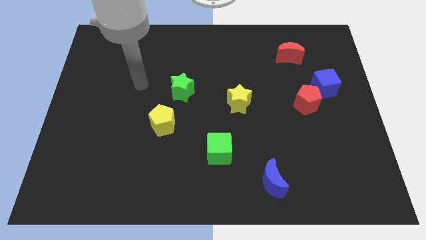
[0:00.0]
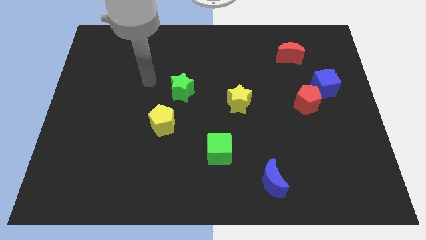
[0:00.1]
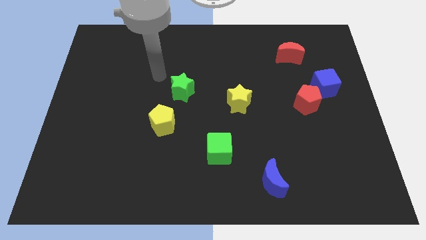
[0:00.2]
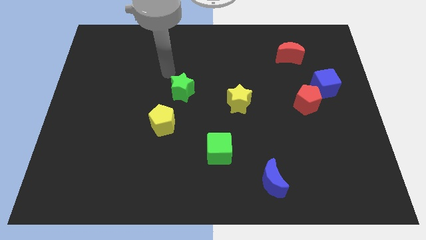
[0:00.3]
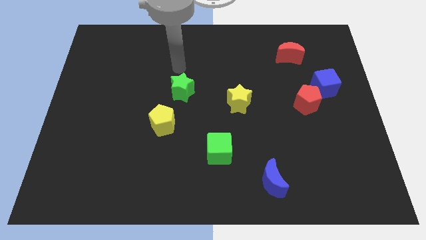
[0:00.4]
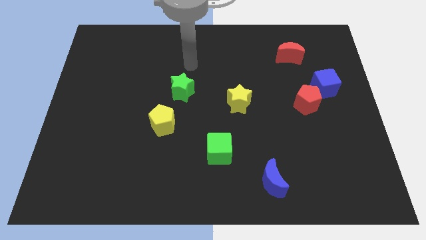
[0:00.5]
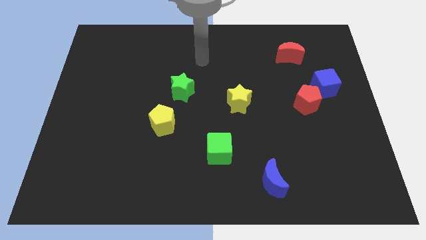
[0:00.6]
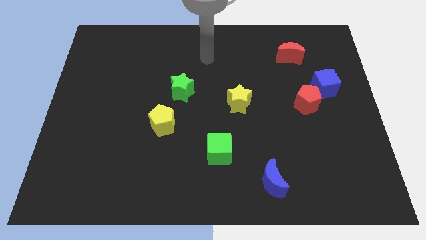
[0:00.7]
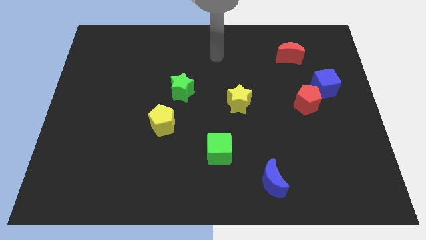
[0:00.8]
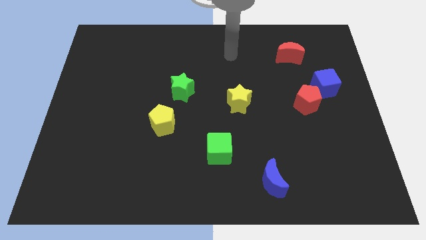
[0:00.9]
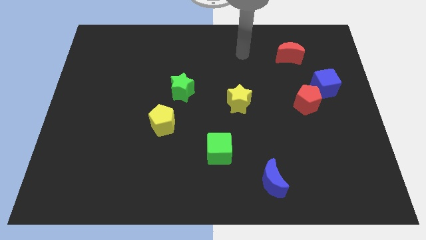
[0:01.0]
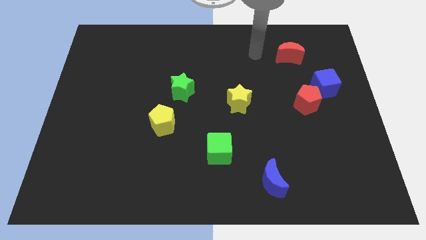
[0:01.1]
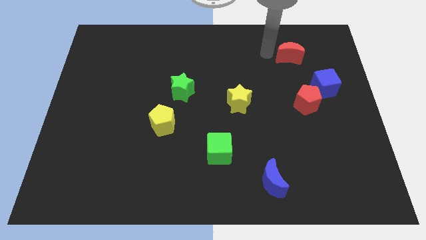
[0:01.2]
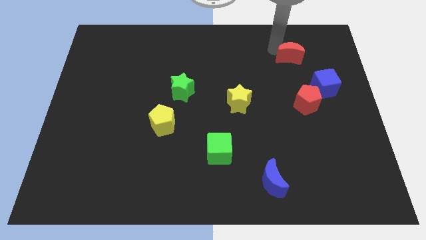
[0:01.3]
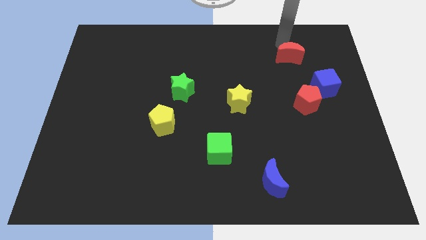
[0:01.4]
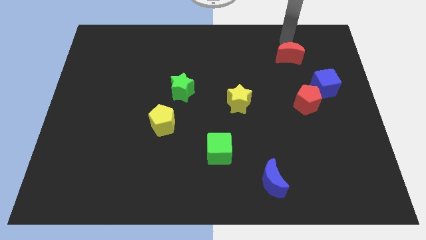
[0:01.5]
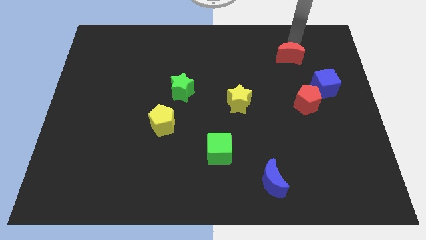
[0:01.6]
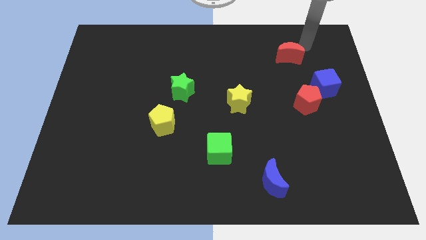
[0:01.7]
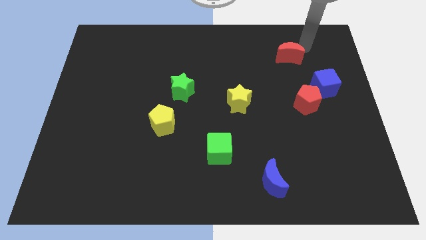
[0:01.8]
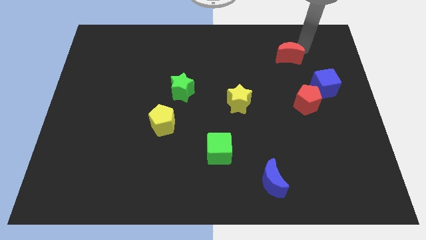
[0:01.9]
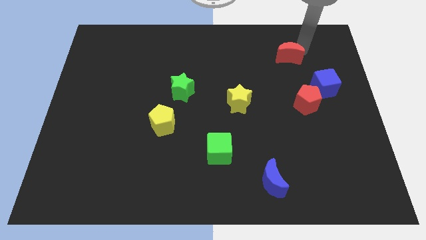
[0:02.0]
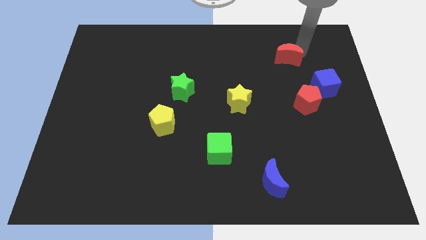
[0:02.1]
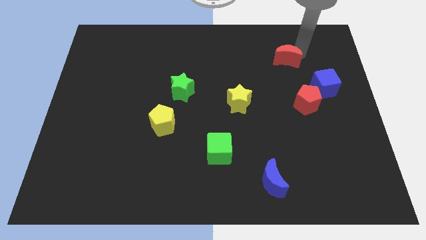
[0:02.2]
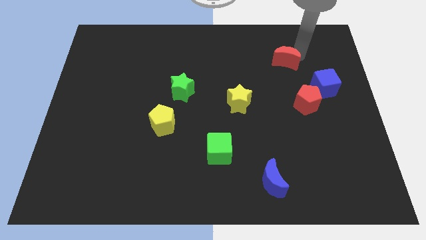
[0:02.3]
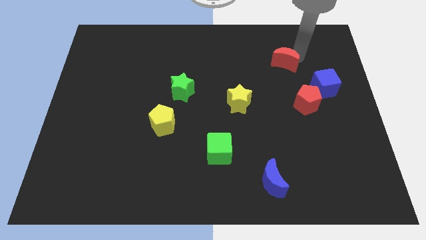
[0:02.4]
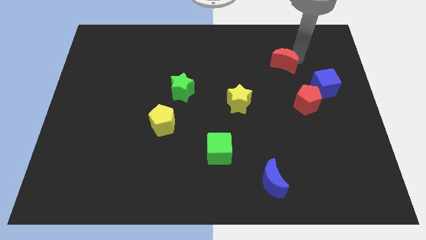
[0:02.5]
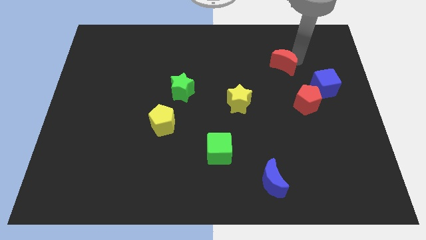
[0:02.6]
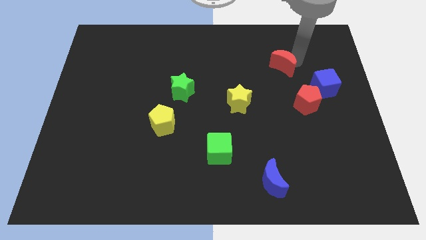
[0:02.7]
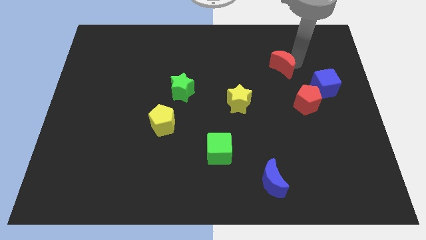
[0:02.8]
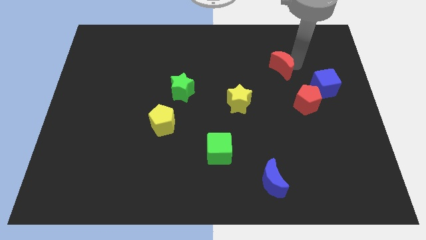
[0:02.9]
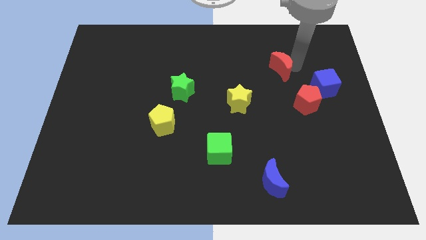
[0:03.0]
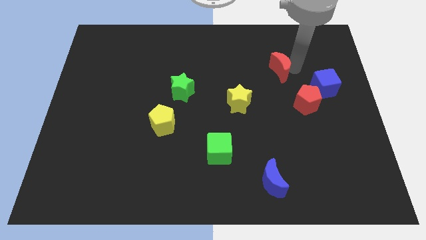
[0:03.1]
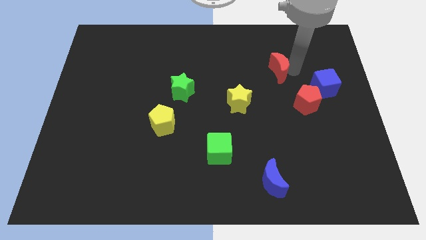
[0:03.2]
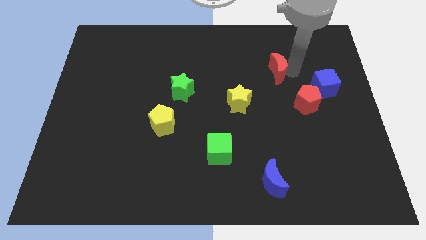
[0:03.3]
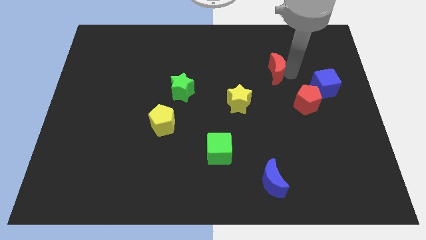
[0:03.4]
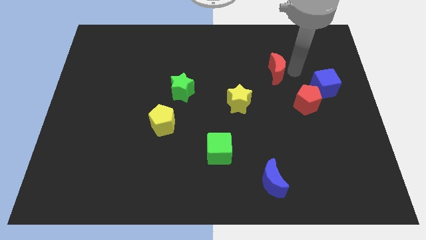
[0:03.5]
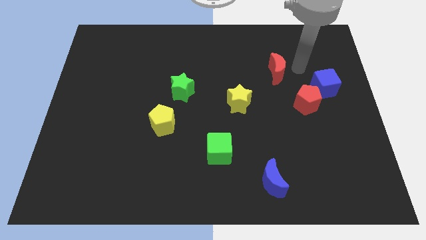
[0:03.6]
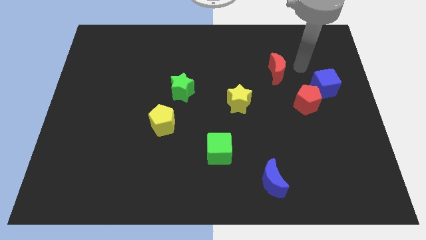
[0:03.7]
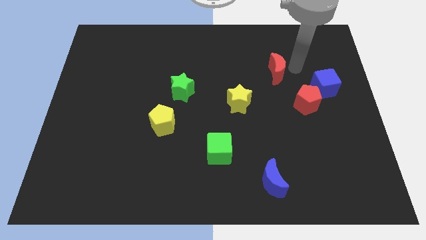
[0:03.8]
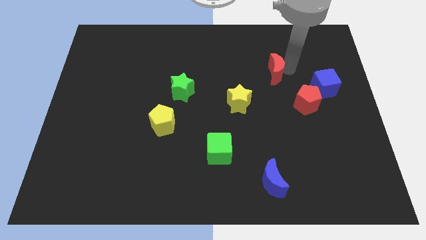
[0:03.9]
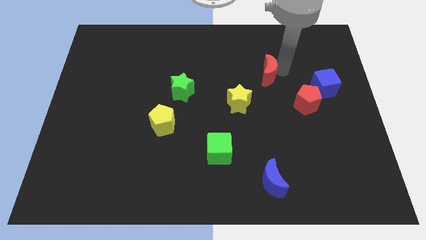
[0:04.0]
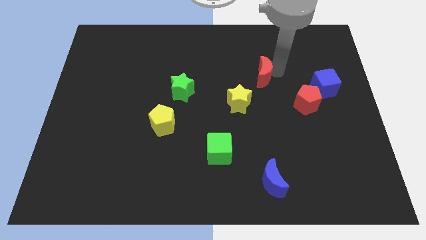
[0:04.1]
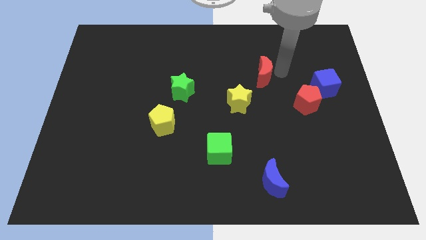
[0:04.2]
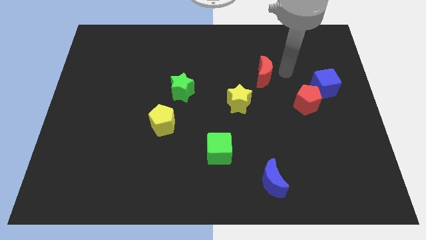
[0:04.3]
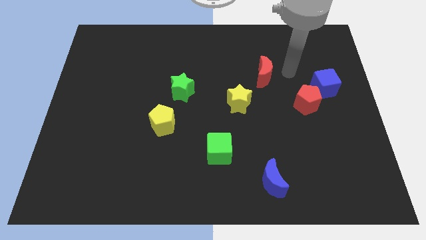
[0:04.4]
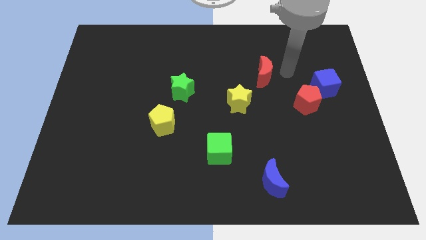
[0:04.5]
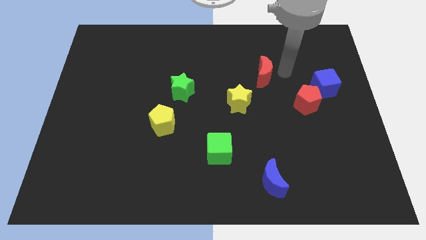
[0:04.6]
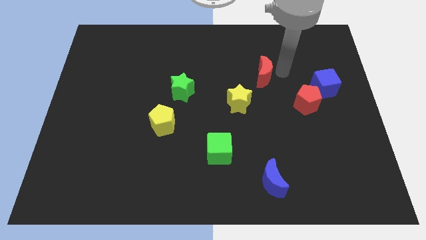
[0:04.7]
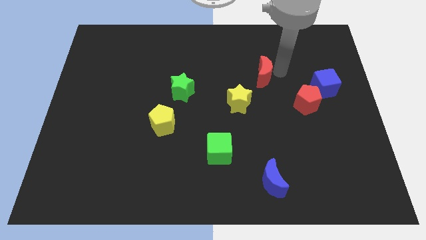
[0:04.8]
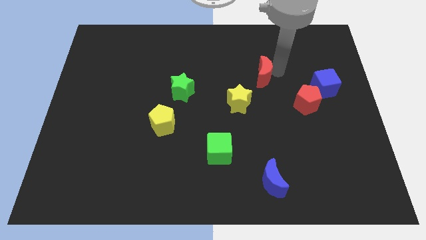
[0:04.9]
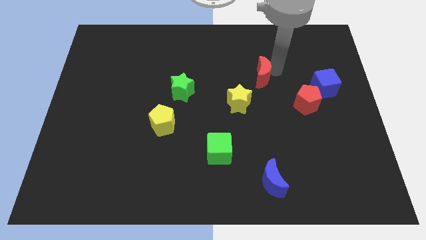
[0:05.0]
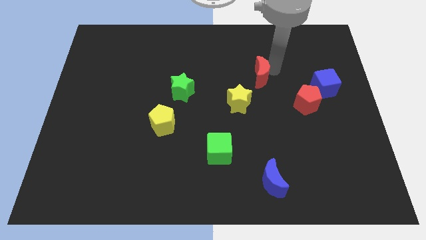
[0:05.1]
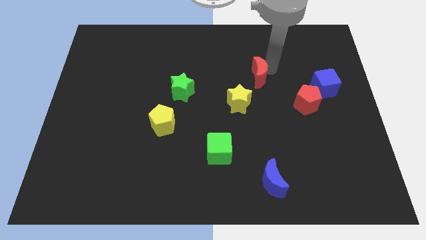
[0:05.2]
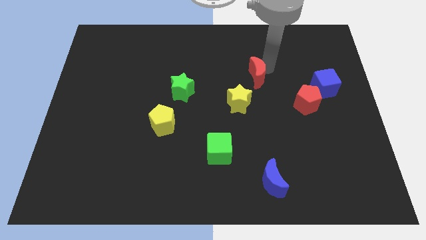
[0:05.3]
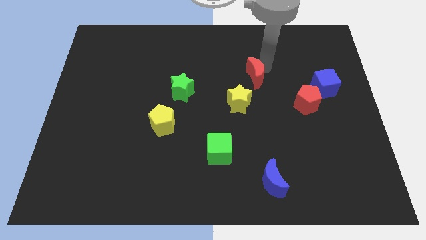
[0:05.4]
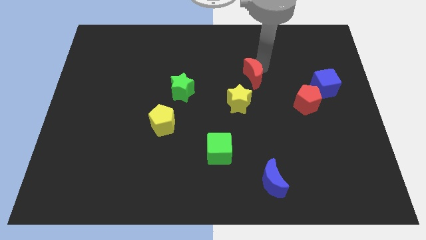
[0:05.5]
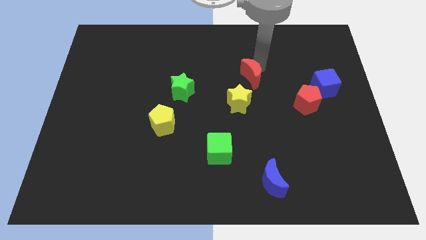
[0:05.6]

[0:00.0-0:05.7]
push the red moon to the middle
